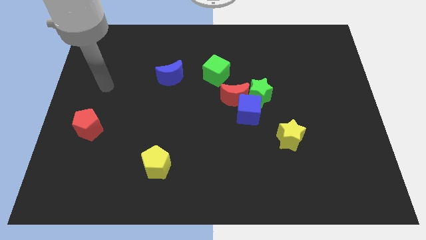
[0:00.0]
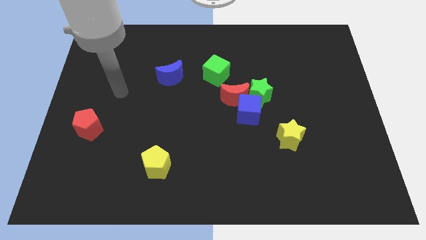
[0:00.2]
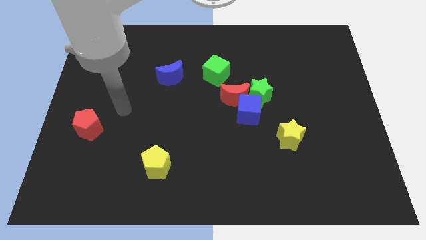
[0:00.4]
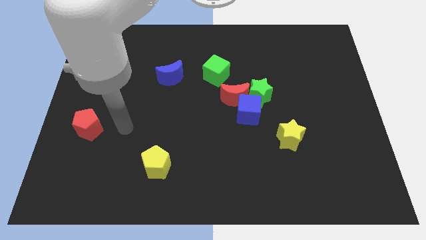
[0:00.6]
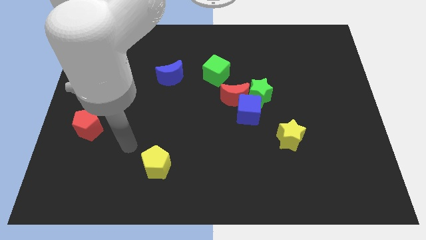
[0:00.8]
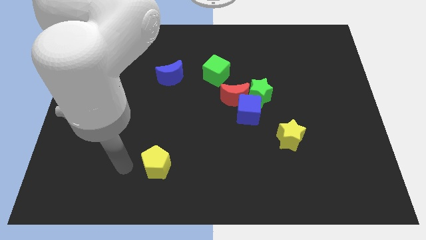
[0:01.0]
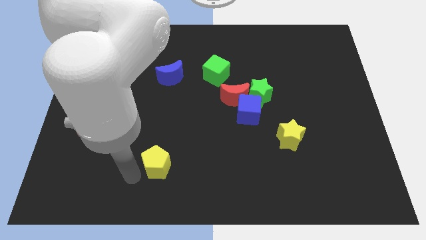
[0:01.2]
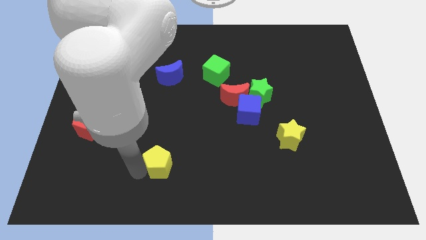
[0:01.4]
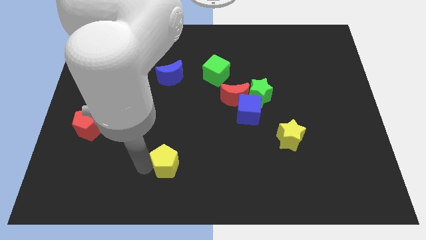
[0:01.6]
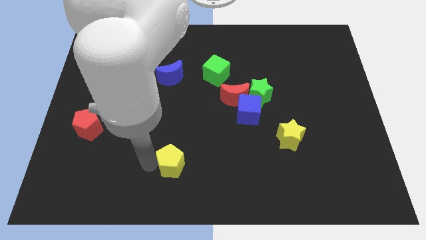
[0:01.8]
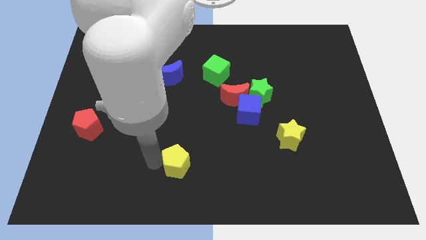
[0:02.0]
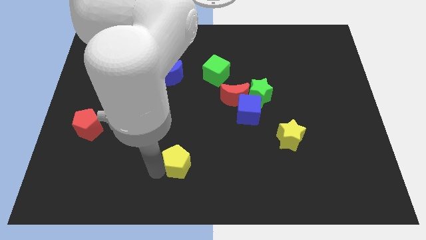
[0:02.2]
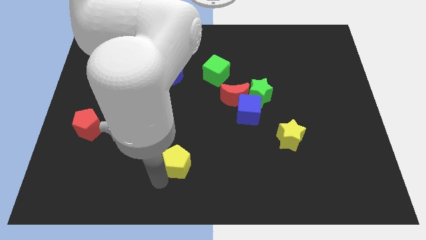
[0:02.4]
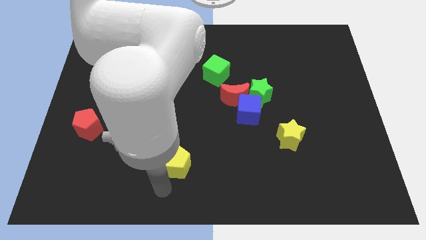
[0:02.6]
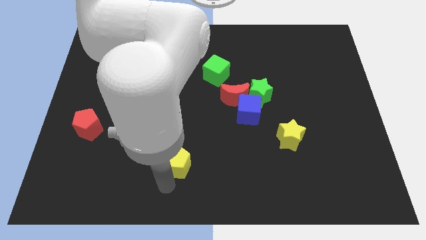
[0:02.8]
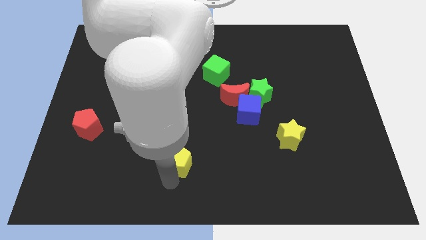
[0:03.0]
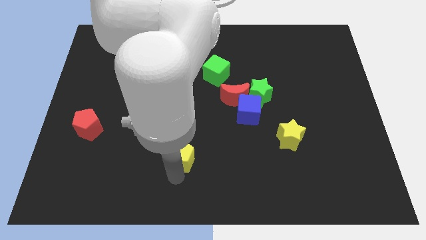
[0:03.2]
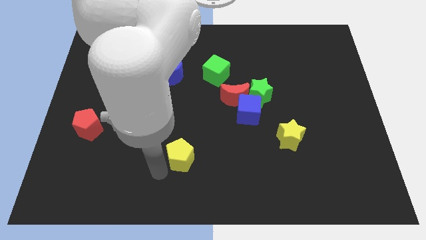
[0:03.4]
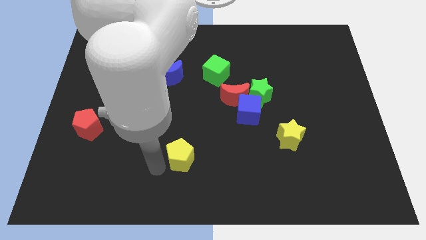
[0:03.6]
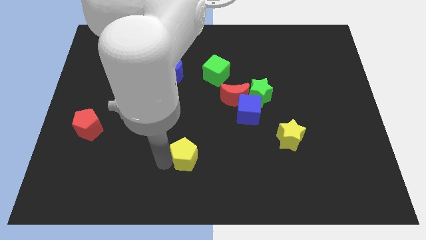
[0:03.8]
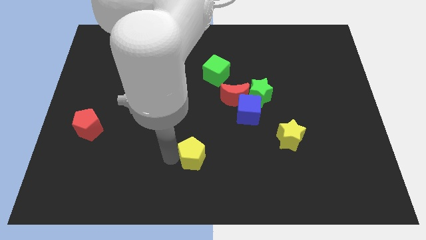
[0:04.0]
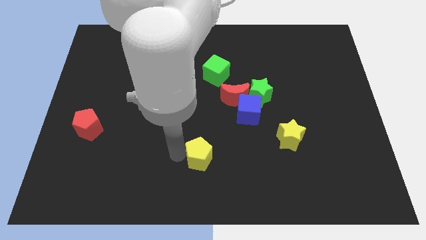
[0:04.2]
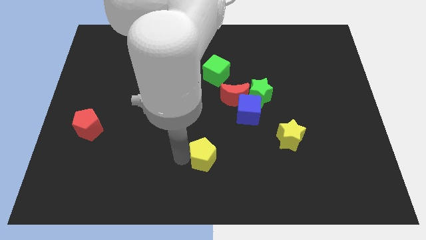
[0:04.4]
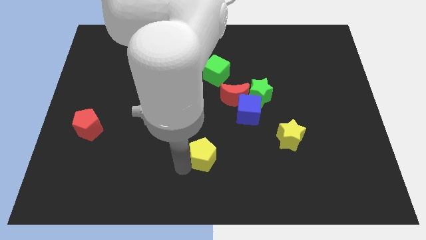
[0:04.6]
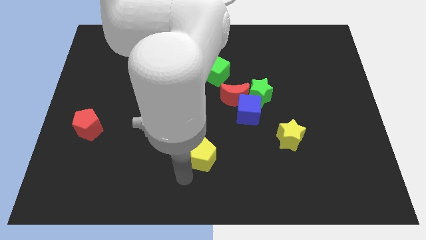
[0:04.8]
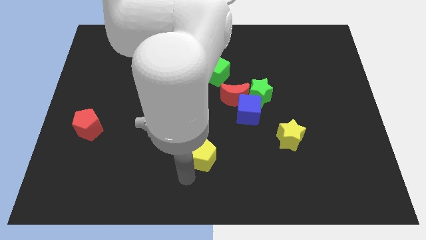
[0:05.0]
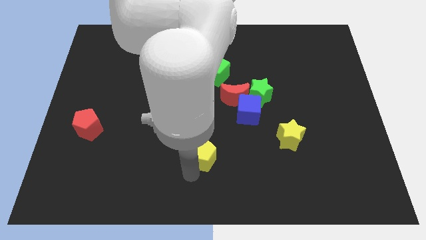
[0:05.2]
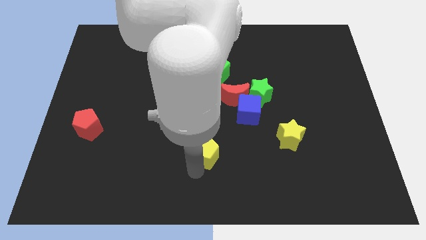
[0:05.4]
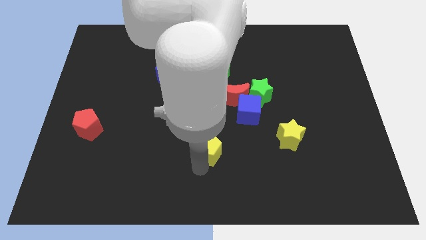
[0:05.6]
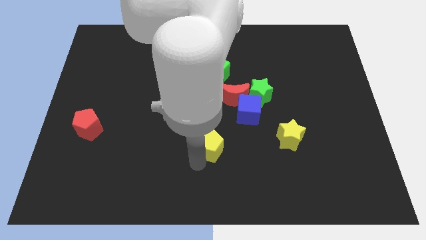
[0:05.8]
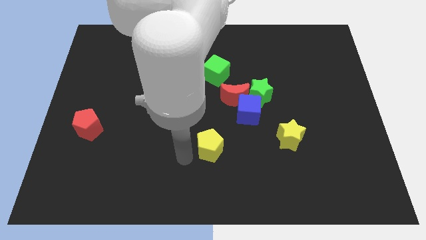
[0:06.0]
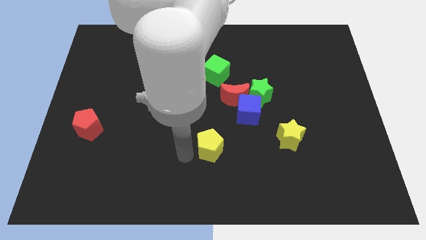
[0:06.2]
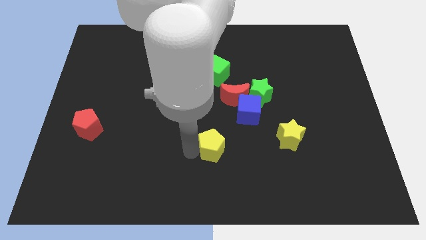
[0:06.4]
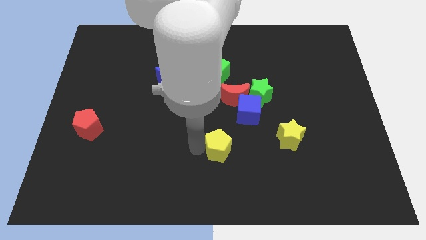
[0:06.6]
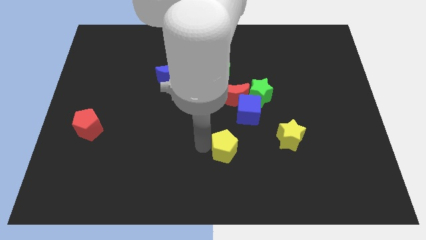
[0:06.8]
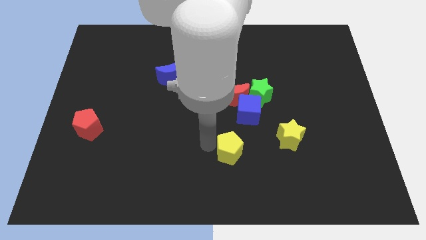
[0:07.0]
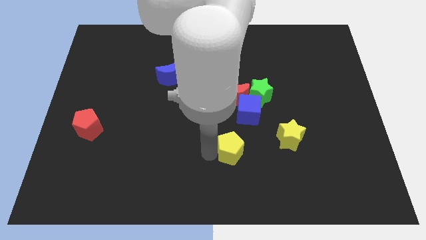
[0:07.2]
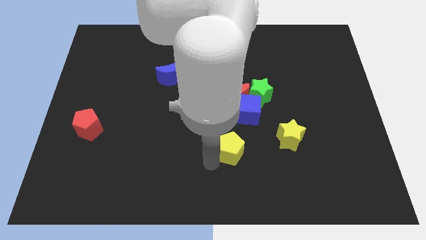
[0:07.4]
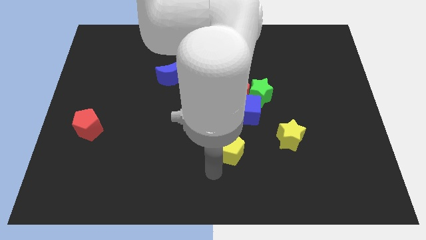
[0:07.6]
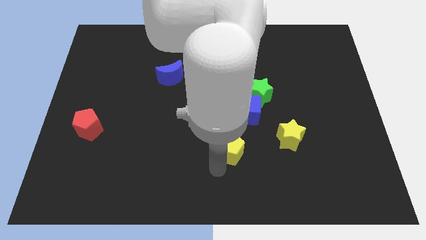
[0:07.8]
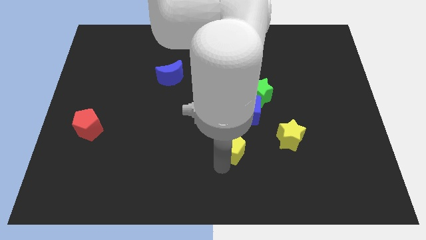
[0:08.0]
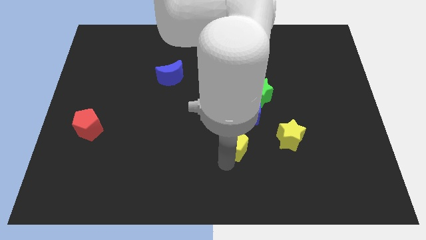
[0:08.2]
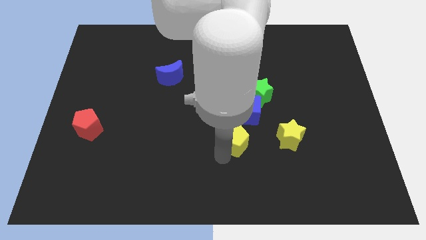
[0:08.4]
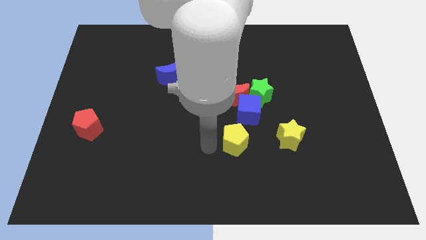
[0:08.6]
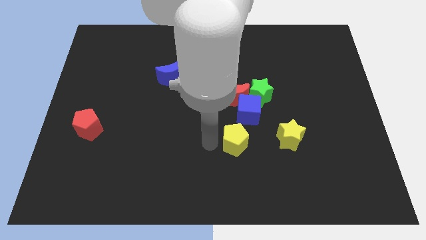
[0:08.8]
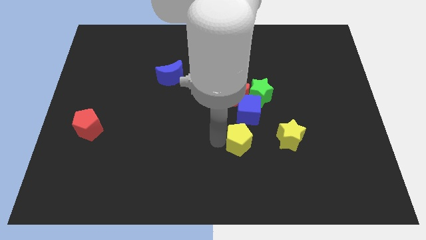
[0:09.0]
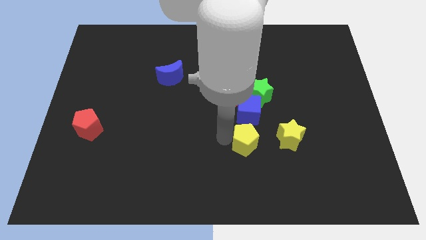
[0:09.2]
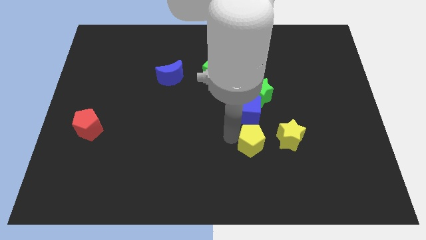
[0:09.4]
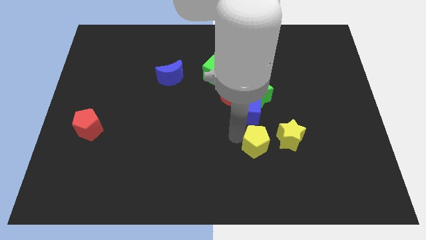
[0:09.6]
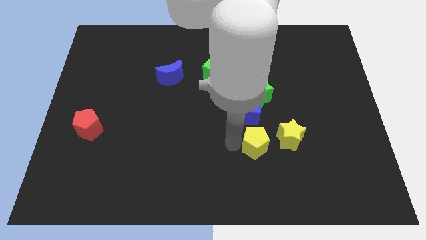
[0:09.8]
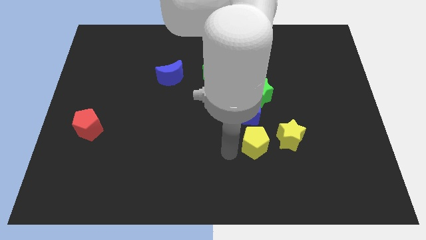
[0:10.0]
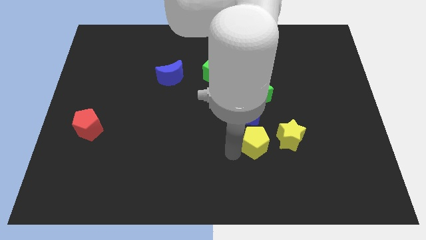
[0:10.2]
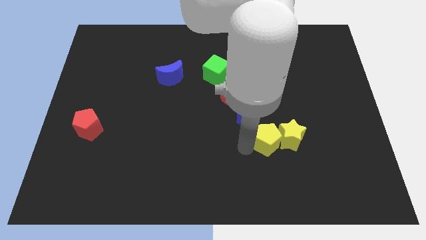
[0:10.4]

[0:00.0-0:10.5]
put the yellow pentagon to the yellow star

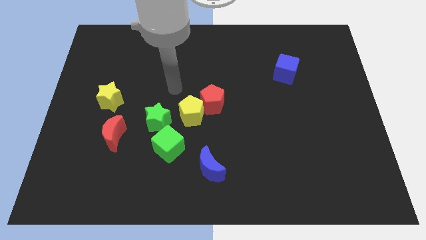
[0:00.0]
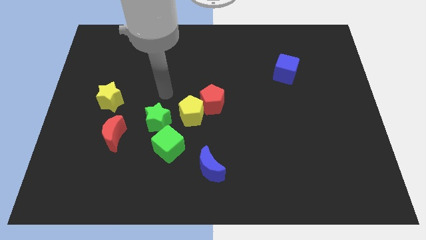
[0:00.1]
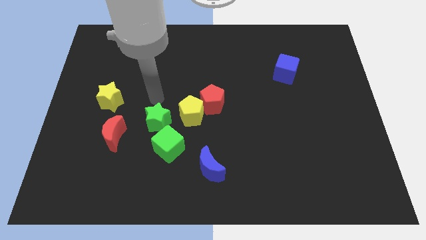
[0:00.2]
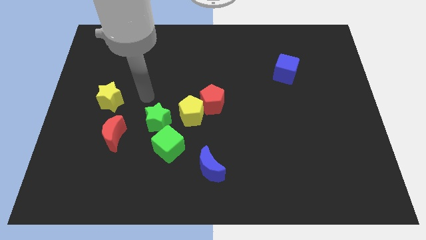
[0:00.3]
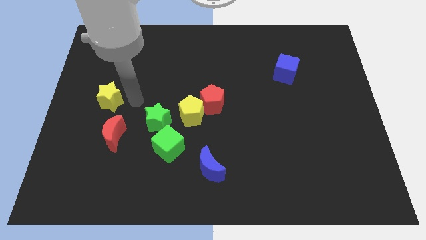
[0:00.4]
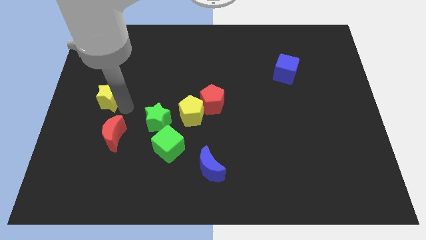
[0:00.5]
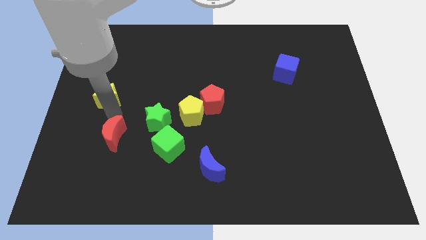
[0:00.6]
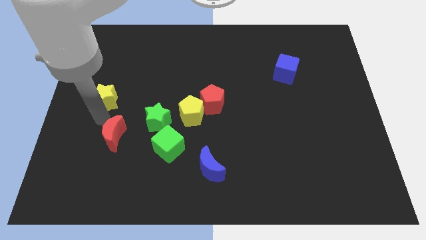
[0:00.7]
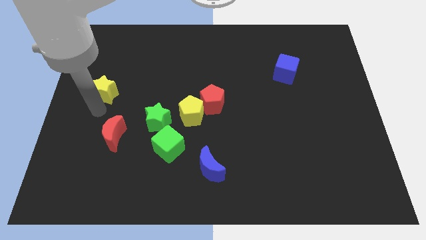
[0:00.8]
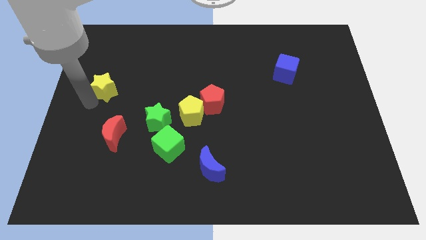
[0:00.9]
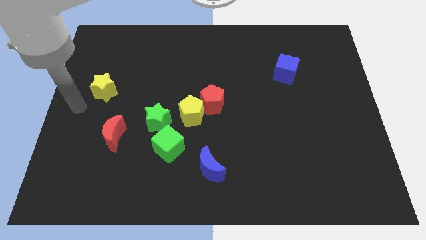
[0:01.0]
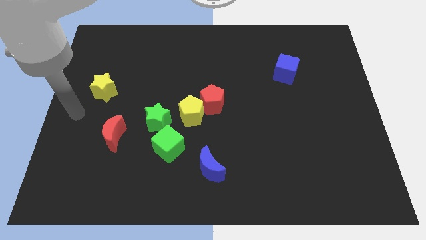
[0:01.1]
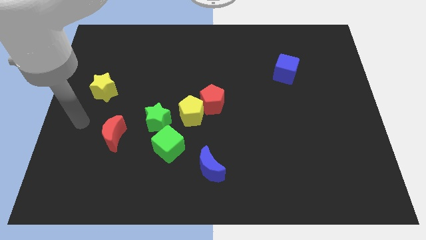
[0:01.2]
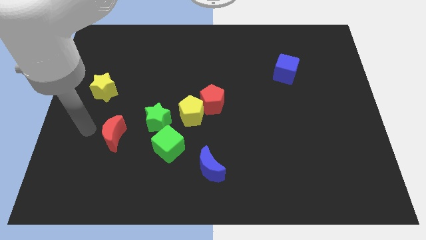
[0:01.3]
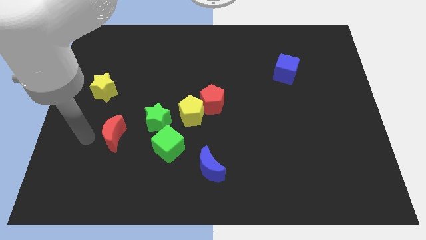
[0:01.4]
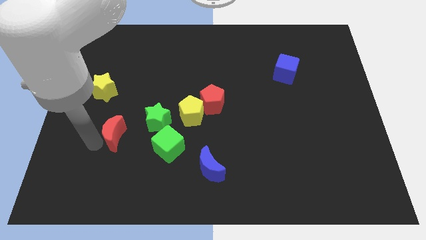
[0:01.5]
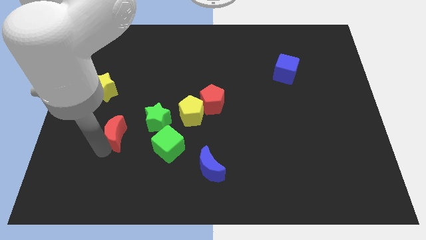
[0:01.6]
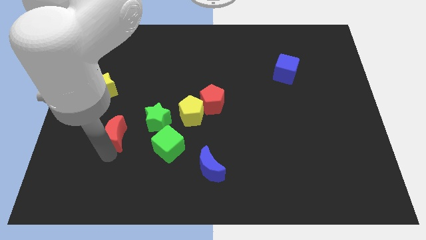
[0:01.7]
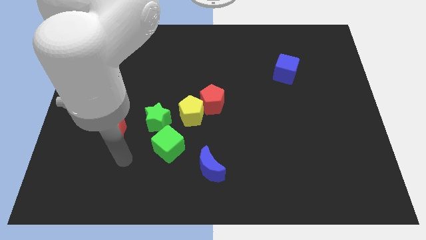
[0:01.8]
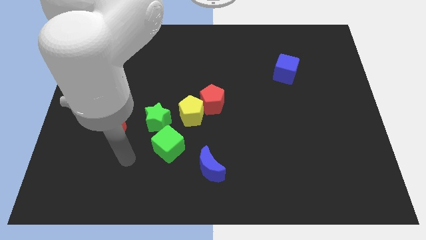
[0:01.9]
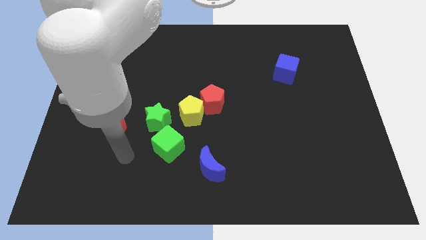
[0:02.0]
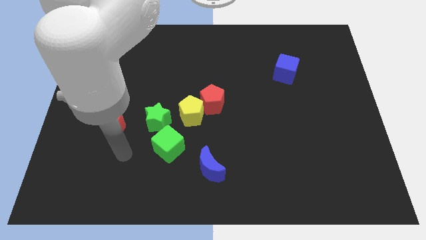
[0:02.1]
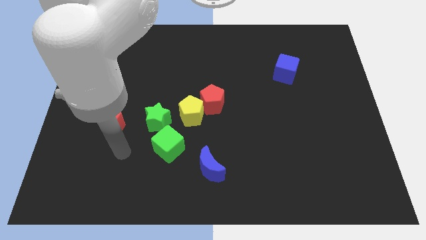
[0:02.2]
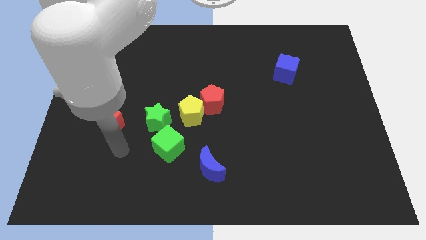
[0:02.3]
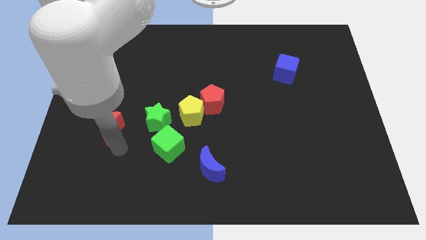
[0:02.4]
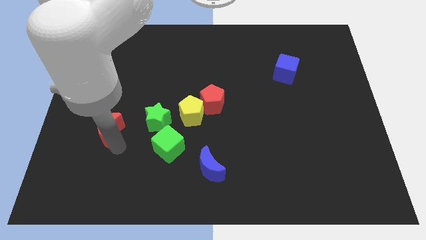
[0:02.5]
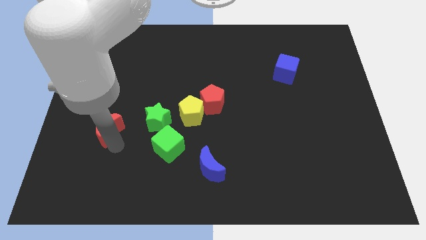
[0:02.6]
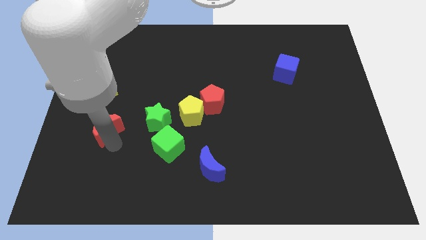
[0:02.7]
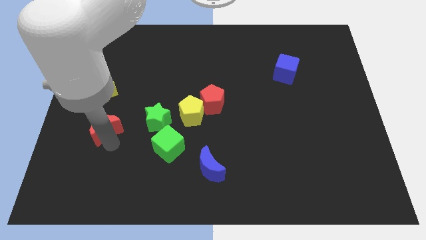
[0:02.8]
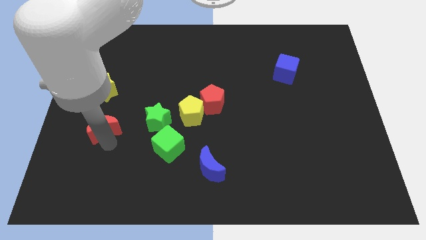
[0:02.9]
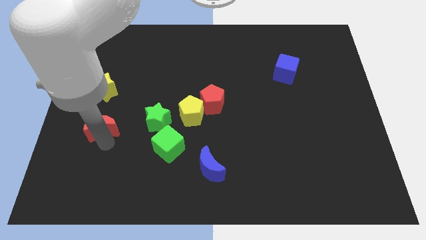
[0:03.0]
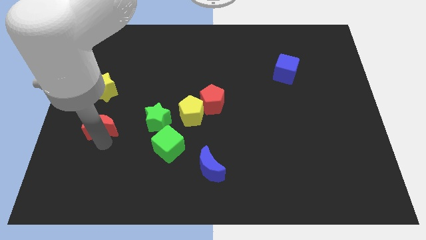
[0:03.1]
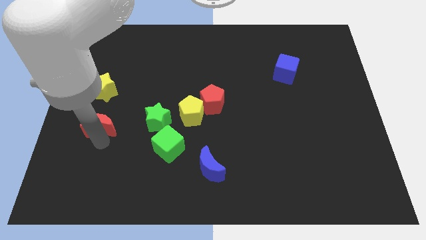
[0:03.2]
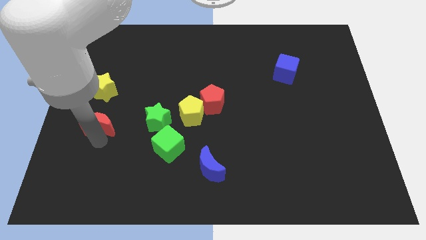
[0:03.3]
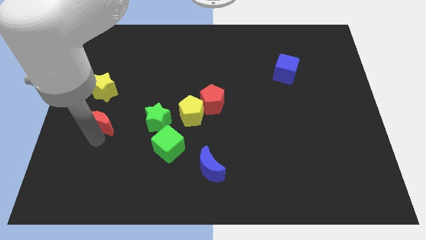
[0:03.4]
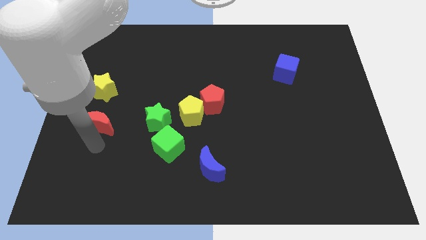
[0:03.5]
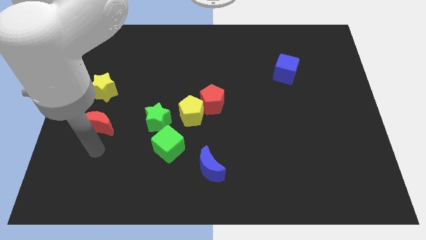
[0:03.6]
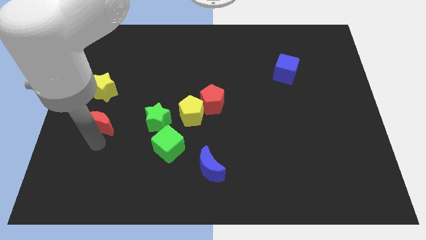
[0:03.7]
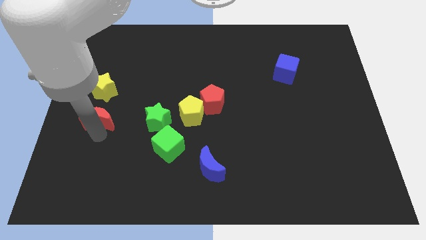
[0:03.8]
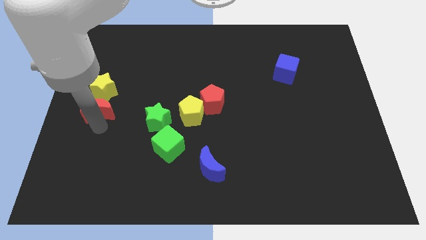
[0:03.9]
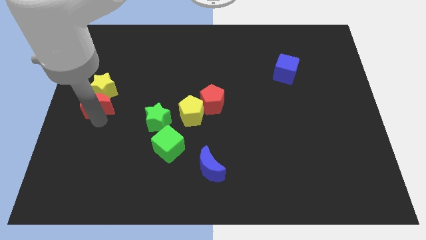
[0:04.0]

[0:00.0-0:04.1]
move the red moon close to the yellow star
